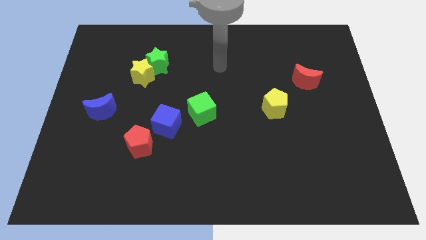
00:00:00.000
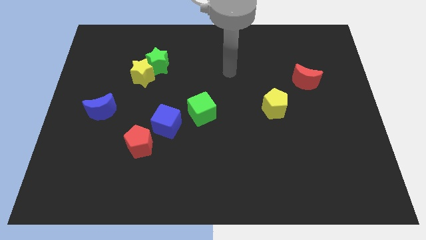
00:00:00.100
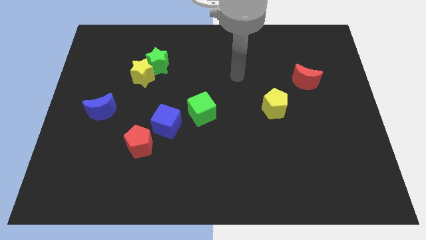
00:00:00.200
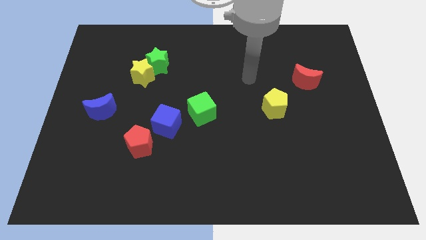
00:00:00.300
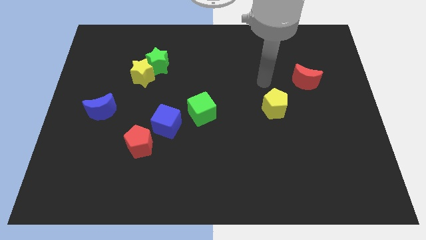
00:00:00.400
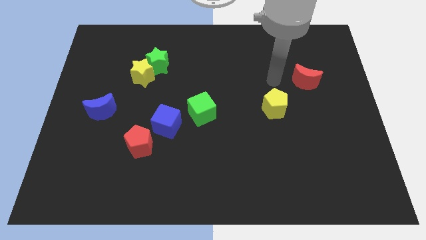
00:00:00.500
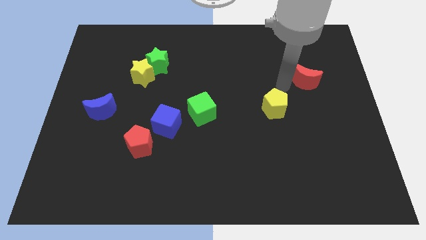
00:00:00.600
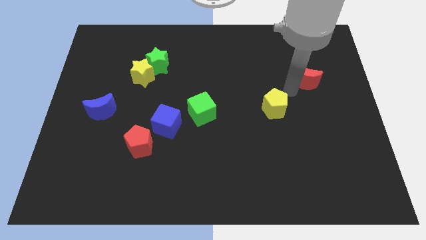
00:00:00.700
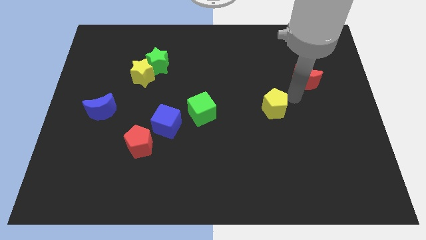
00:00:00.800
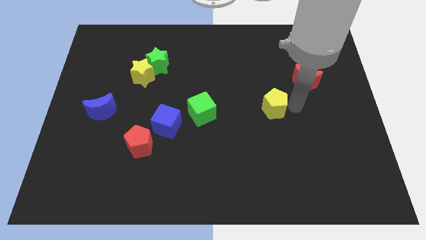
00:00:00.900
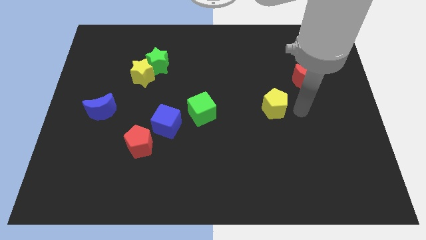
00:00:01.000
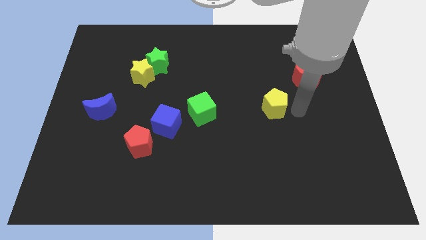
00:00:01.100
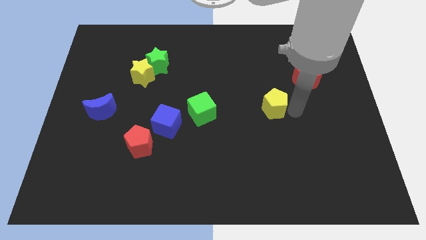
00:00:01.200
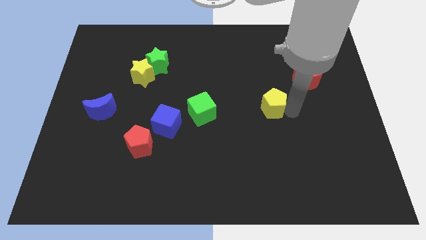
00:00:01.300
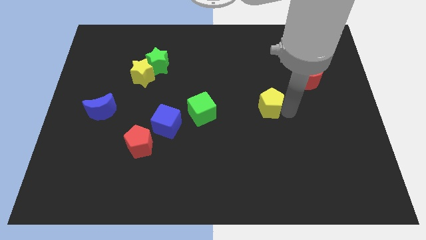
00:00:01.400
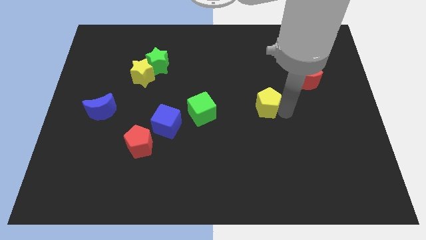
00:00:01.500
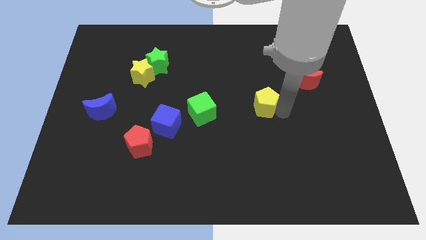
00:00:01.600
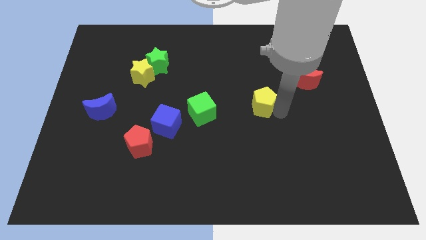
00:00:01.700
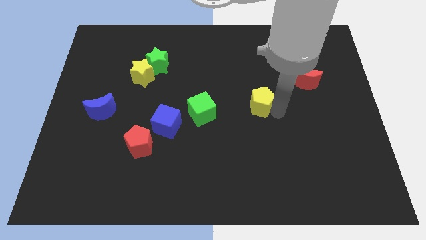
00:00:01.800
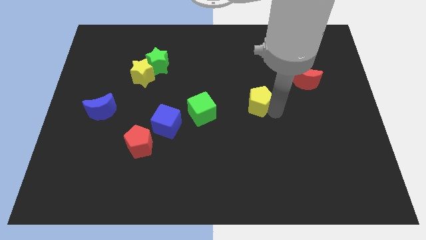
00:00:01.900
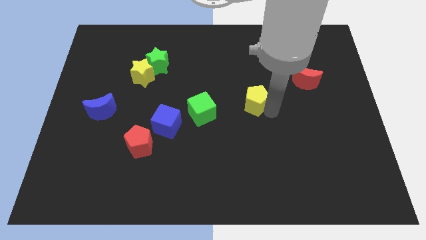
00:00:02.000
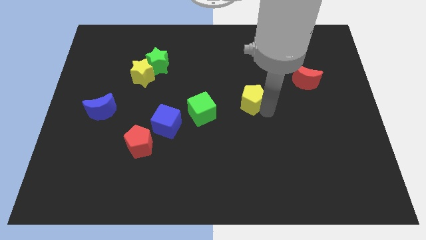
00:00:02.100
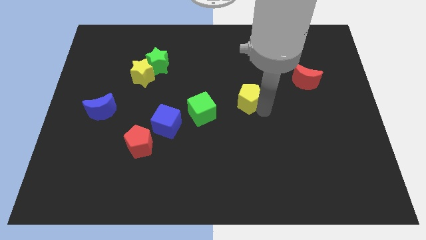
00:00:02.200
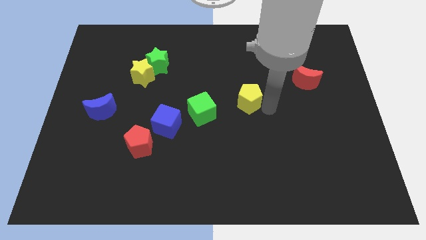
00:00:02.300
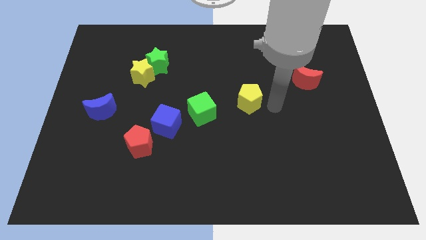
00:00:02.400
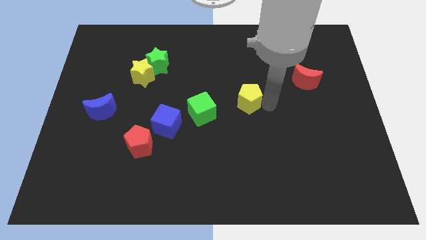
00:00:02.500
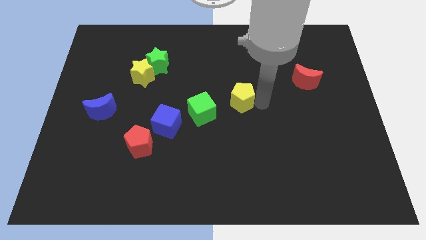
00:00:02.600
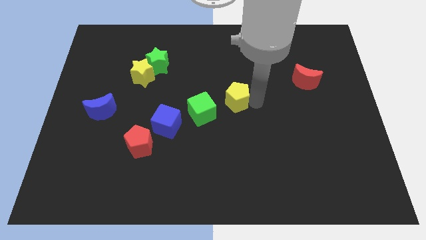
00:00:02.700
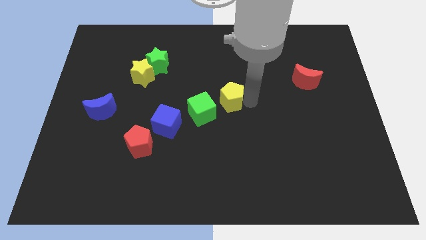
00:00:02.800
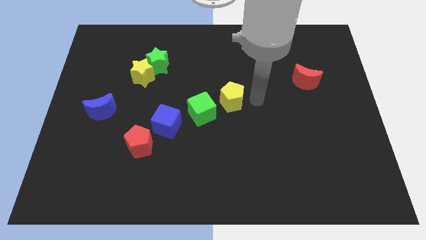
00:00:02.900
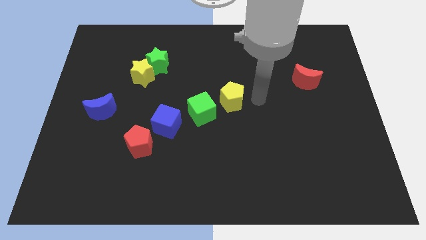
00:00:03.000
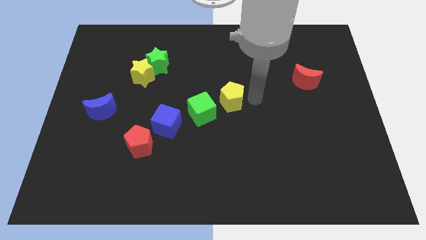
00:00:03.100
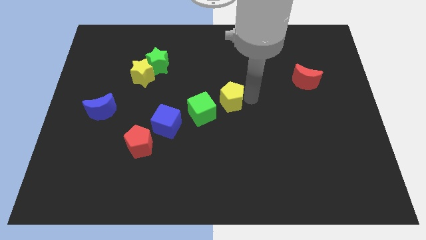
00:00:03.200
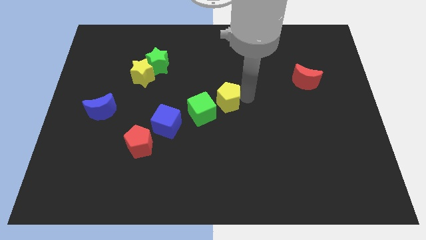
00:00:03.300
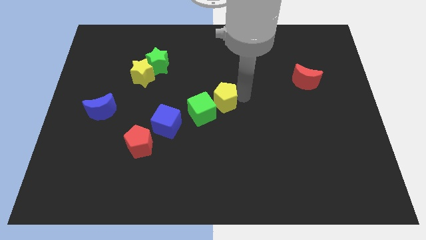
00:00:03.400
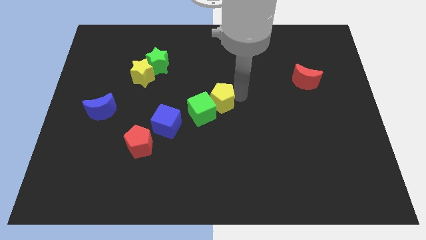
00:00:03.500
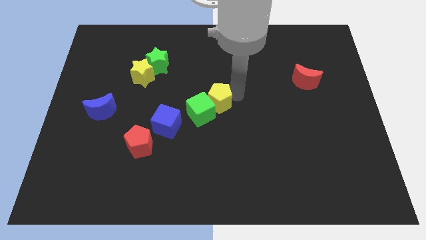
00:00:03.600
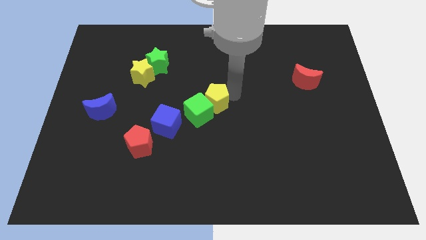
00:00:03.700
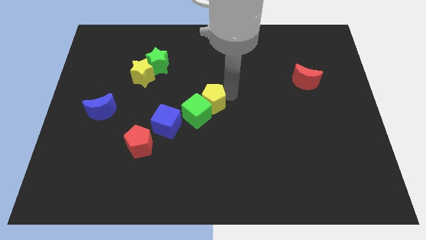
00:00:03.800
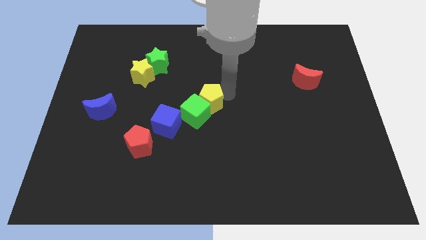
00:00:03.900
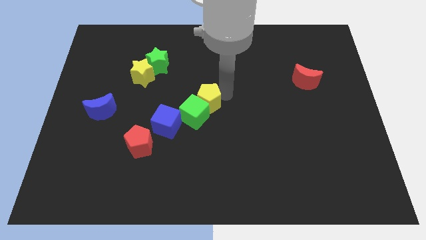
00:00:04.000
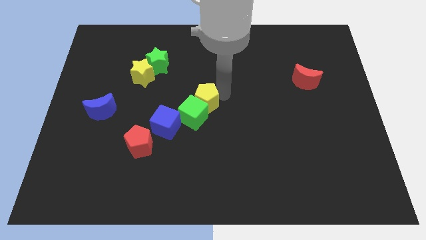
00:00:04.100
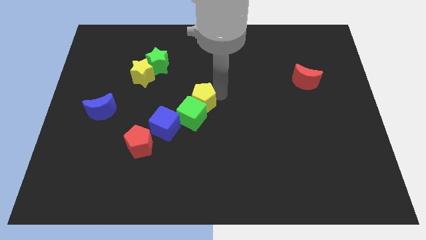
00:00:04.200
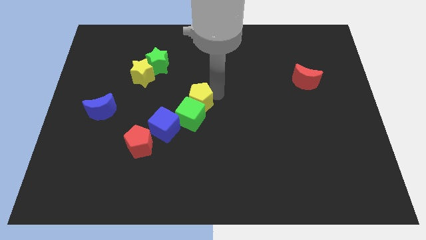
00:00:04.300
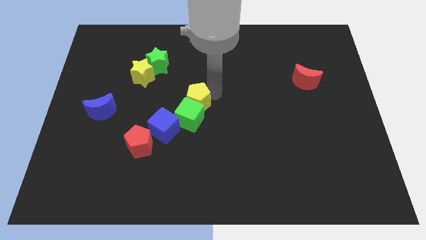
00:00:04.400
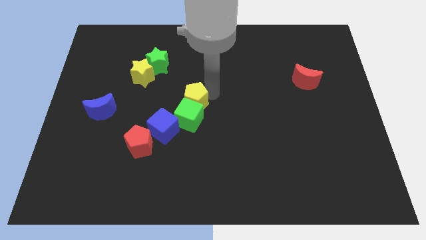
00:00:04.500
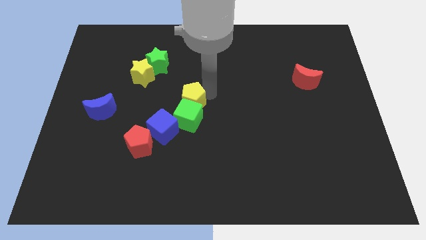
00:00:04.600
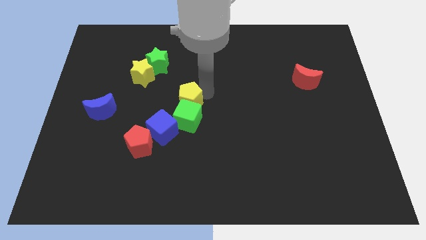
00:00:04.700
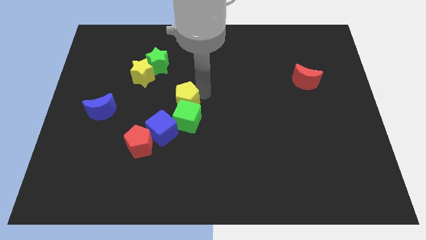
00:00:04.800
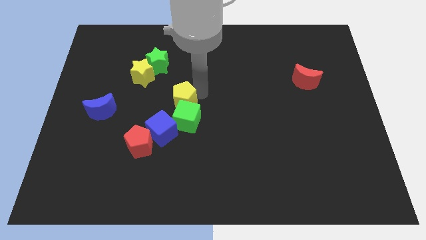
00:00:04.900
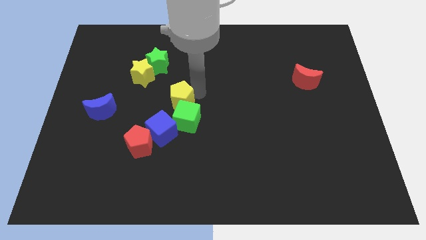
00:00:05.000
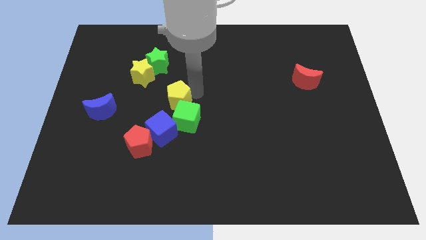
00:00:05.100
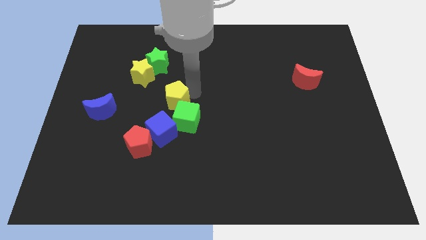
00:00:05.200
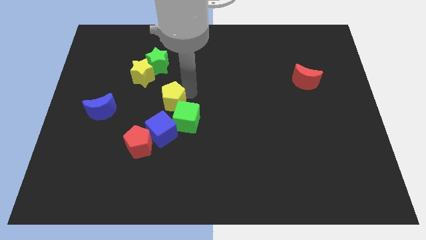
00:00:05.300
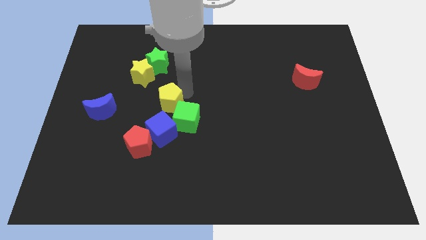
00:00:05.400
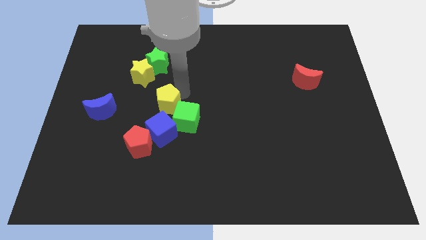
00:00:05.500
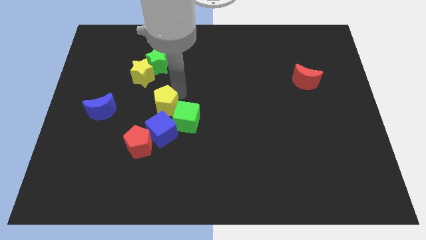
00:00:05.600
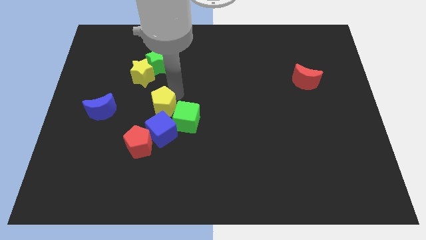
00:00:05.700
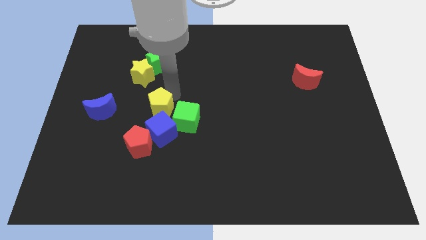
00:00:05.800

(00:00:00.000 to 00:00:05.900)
push the yellow pentagon to the top left of the blue cube

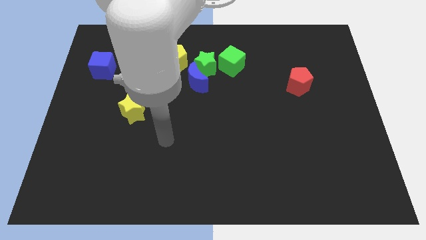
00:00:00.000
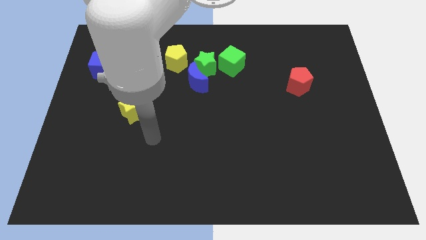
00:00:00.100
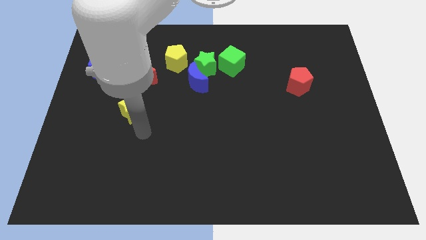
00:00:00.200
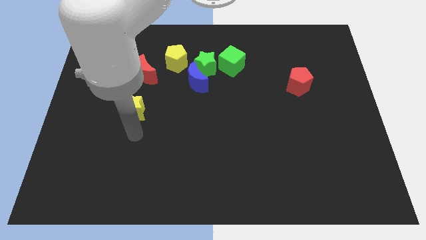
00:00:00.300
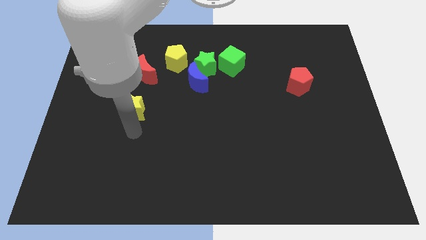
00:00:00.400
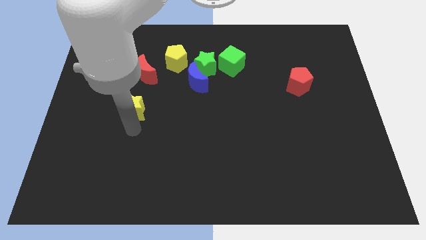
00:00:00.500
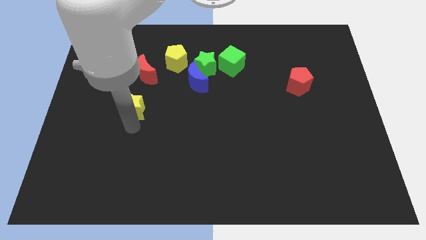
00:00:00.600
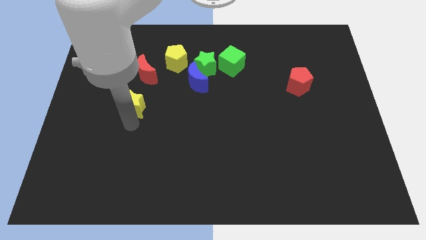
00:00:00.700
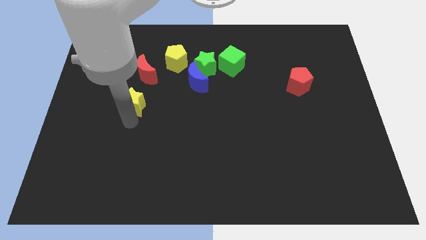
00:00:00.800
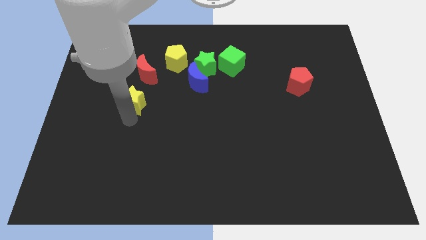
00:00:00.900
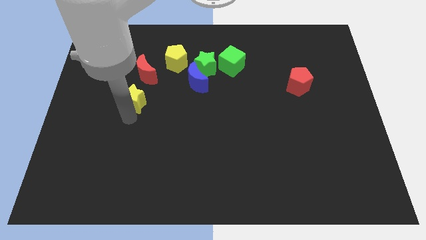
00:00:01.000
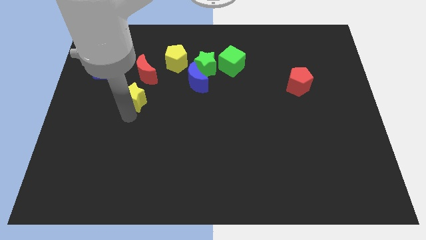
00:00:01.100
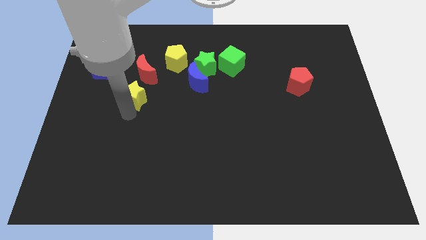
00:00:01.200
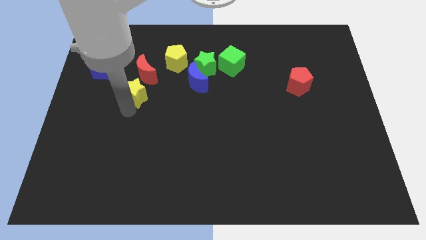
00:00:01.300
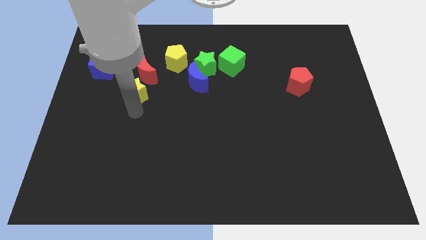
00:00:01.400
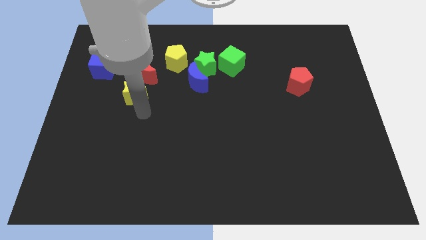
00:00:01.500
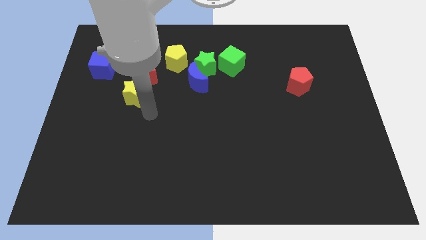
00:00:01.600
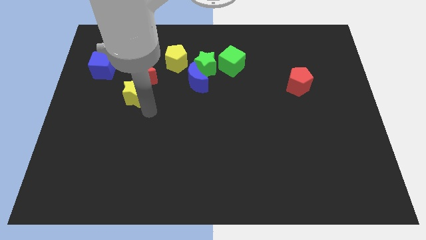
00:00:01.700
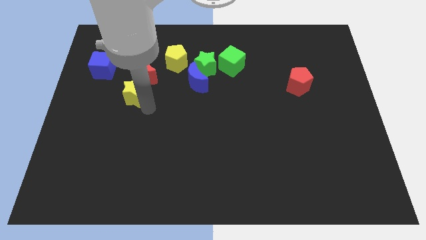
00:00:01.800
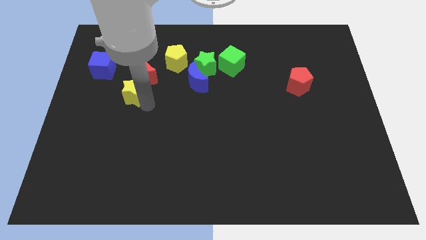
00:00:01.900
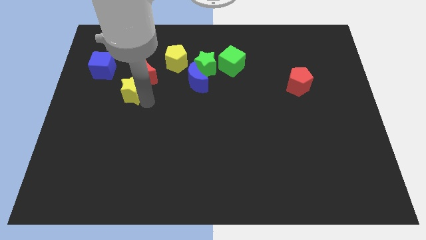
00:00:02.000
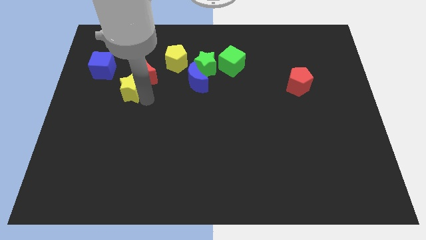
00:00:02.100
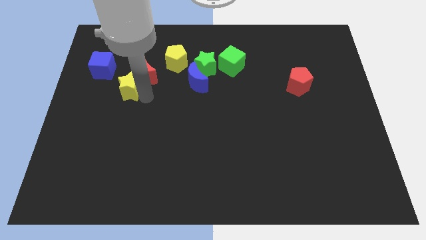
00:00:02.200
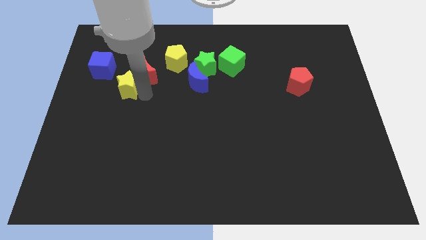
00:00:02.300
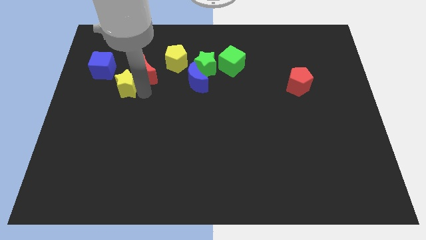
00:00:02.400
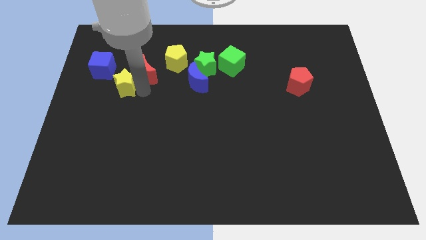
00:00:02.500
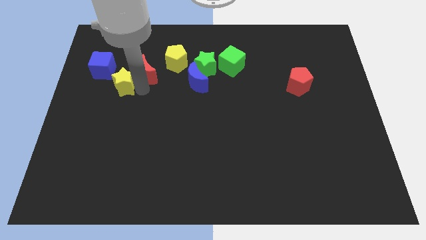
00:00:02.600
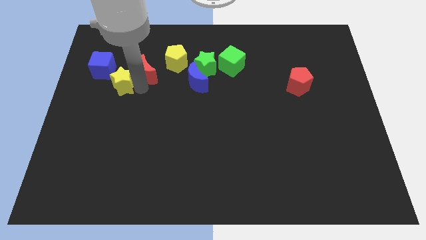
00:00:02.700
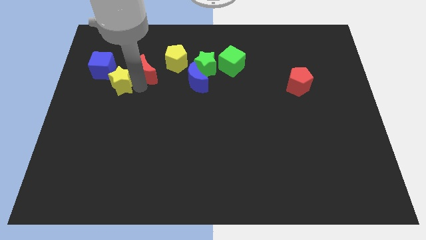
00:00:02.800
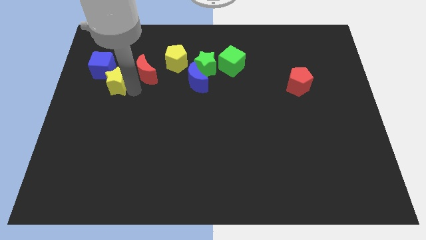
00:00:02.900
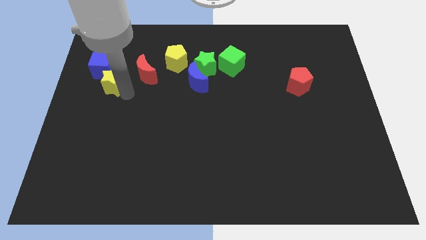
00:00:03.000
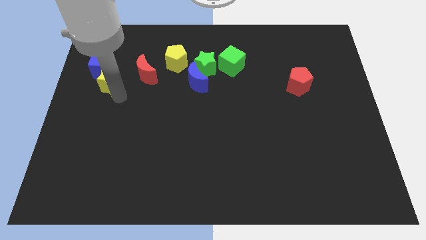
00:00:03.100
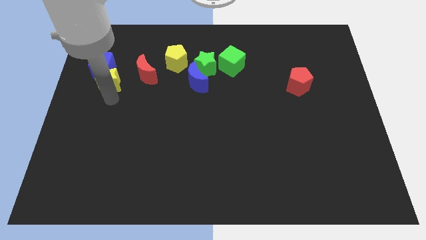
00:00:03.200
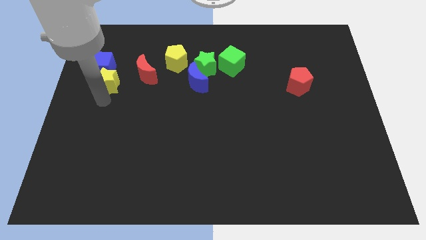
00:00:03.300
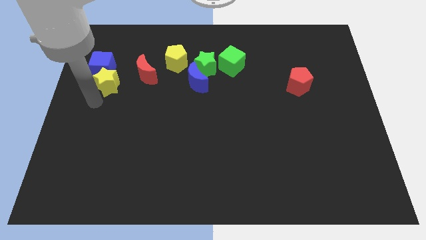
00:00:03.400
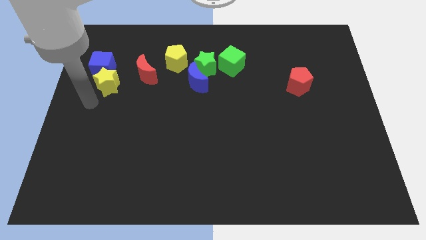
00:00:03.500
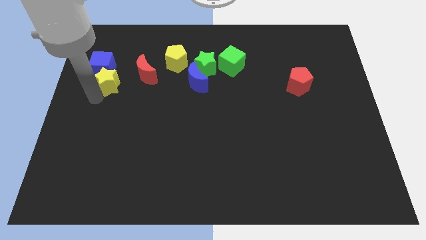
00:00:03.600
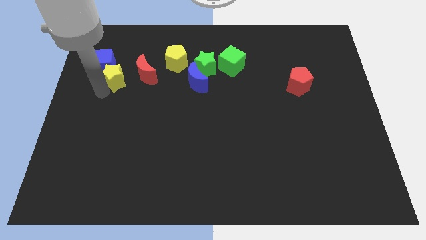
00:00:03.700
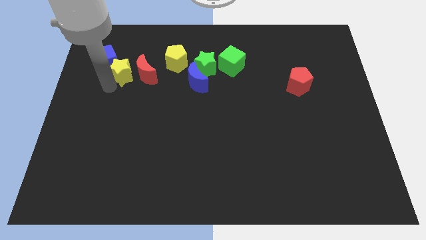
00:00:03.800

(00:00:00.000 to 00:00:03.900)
move the yellow star left of the yellow pentagon
